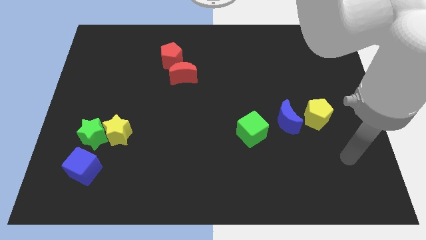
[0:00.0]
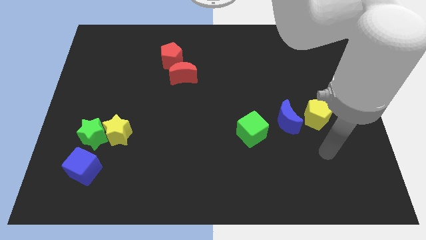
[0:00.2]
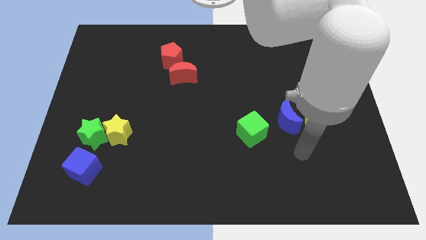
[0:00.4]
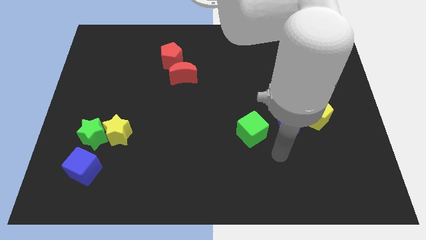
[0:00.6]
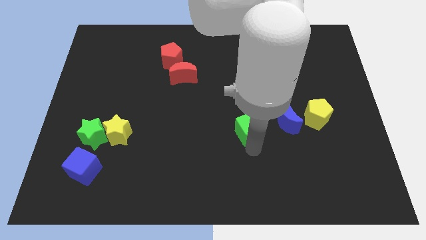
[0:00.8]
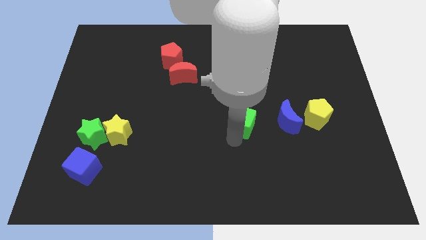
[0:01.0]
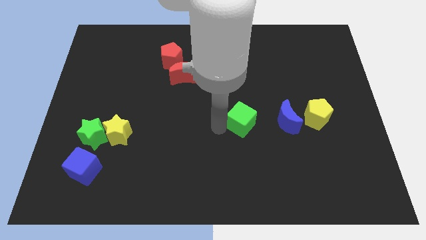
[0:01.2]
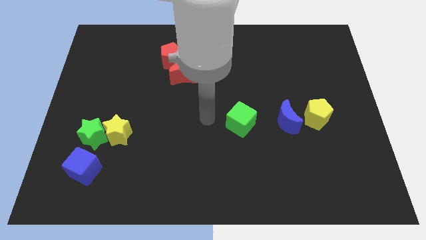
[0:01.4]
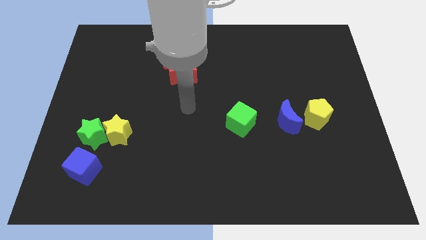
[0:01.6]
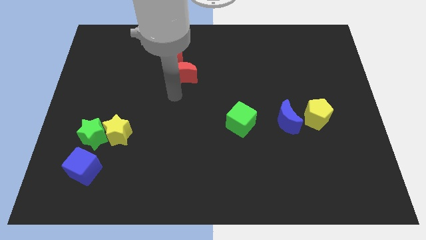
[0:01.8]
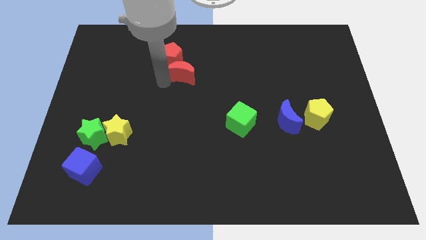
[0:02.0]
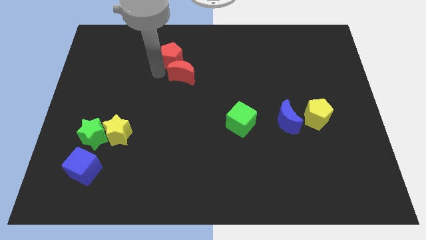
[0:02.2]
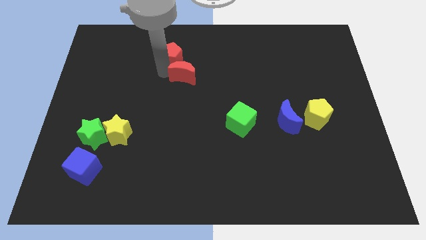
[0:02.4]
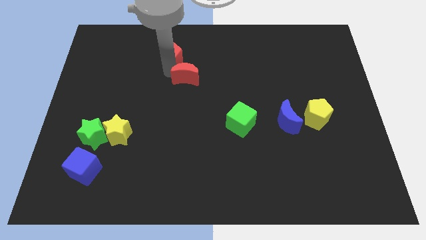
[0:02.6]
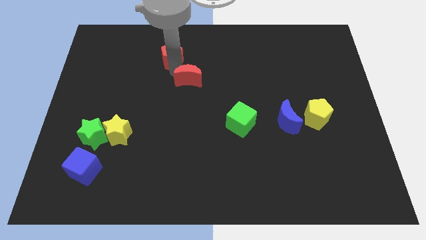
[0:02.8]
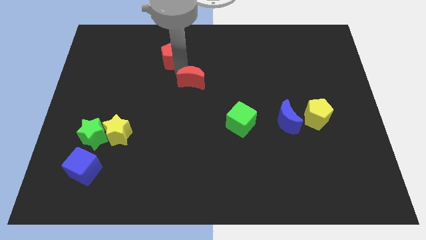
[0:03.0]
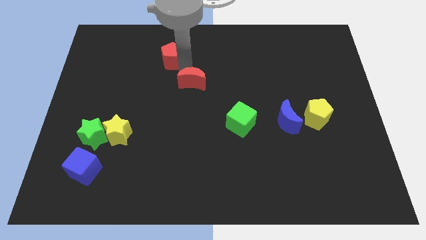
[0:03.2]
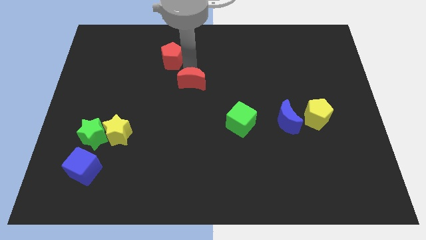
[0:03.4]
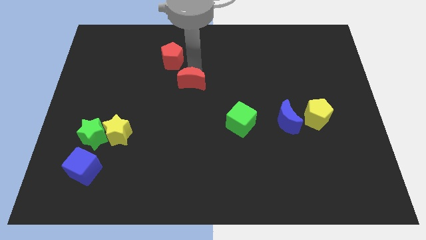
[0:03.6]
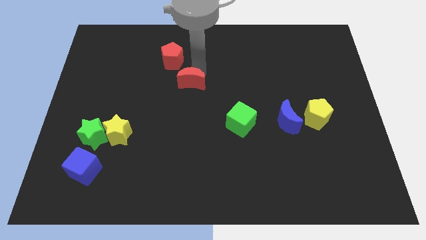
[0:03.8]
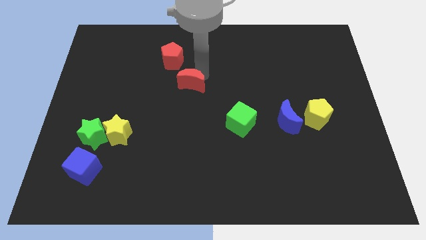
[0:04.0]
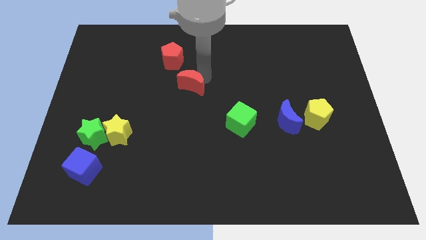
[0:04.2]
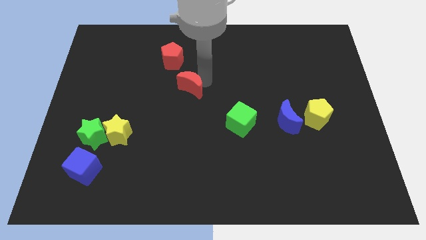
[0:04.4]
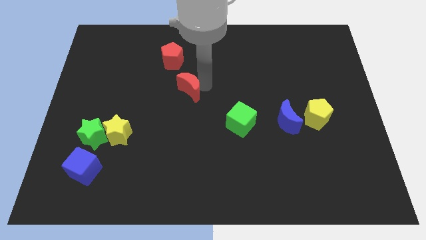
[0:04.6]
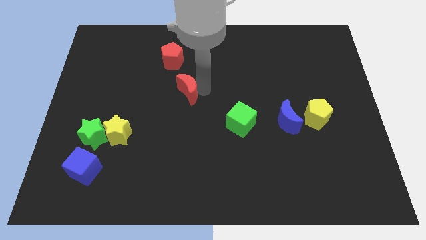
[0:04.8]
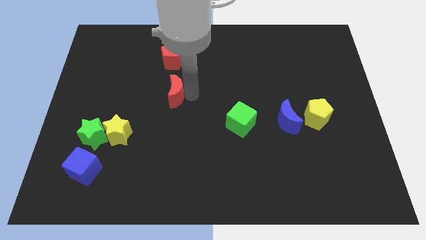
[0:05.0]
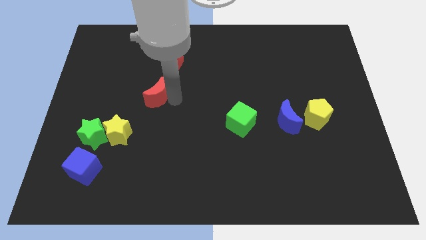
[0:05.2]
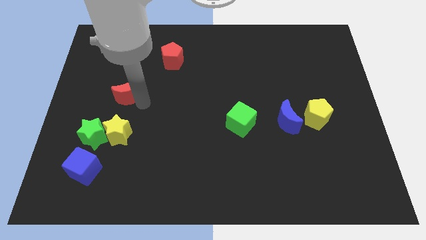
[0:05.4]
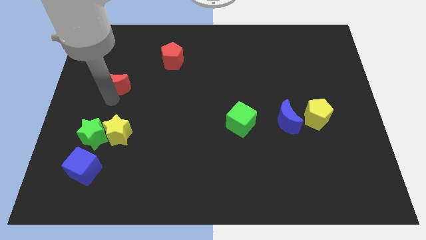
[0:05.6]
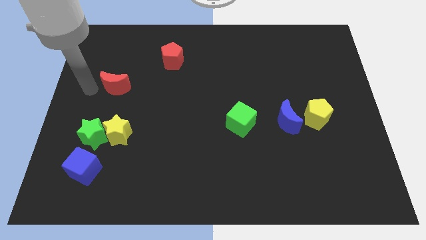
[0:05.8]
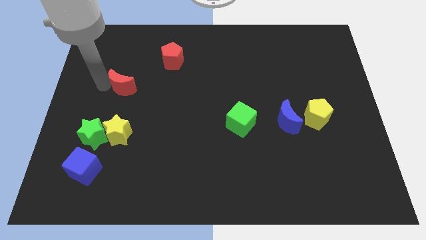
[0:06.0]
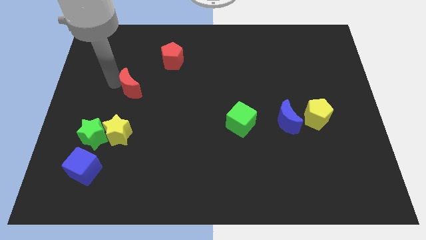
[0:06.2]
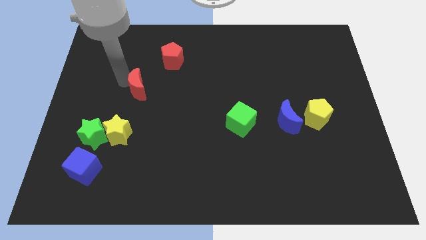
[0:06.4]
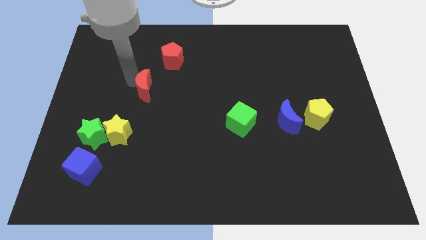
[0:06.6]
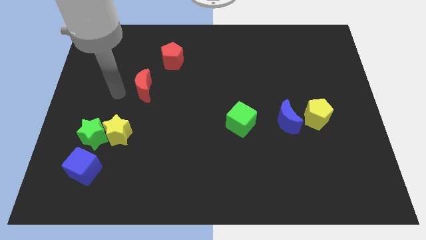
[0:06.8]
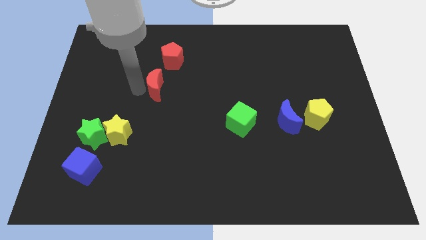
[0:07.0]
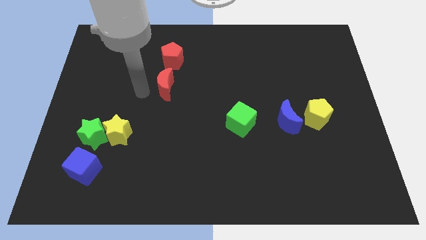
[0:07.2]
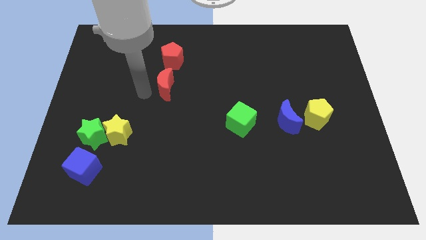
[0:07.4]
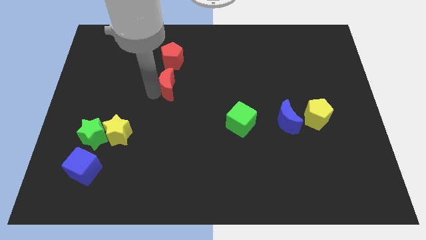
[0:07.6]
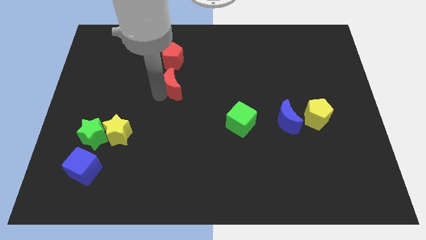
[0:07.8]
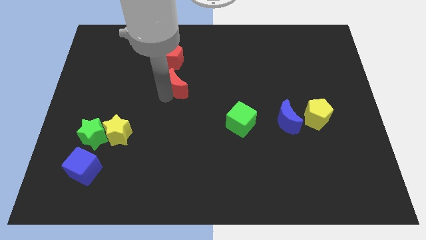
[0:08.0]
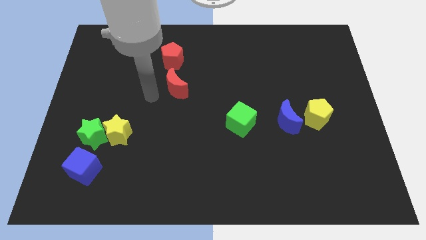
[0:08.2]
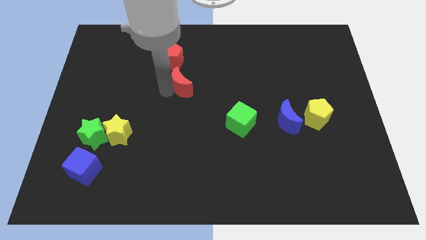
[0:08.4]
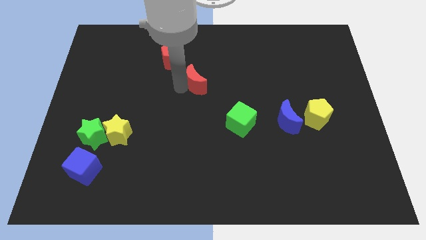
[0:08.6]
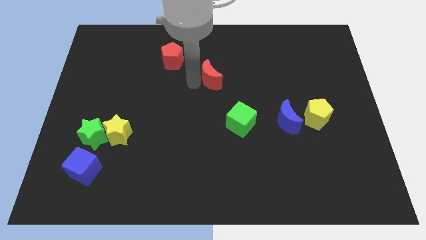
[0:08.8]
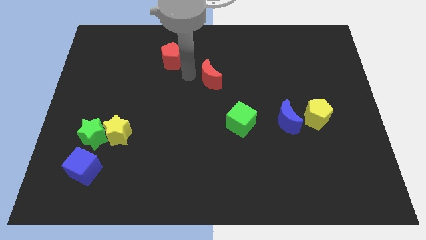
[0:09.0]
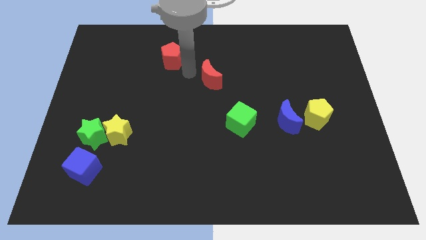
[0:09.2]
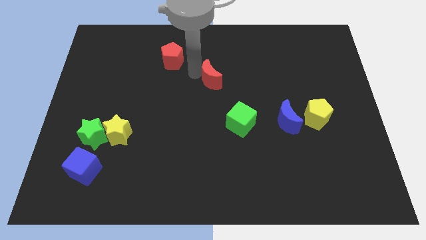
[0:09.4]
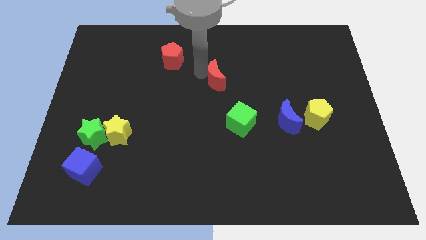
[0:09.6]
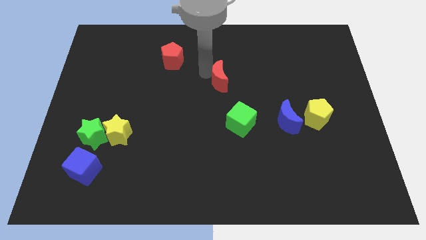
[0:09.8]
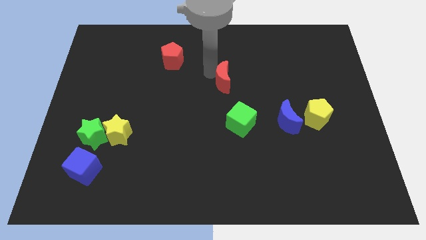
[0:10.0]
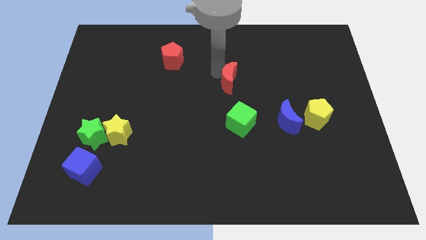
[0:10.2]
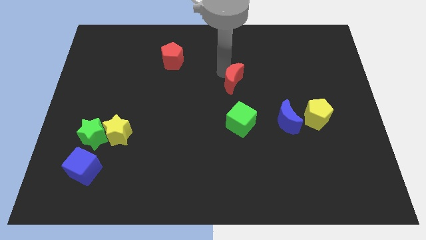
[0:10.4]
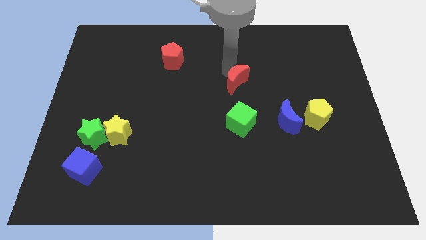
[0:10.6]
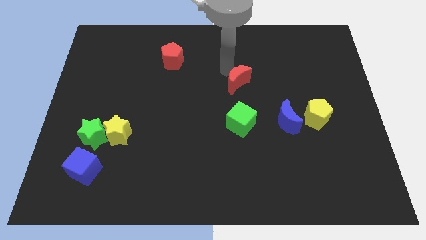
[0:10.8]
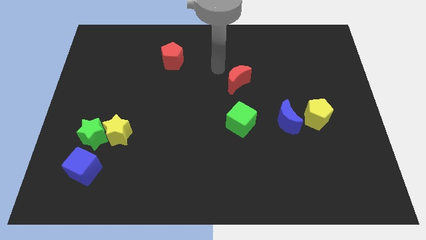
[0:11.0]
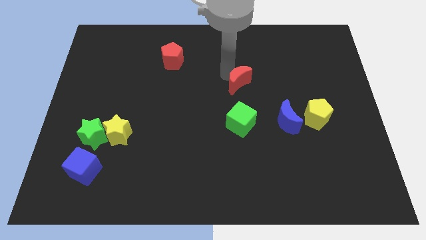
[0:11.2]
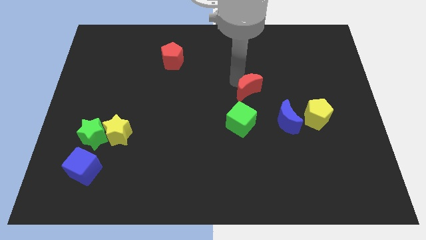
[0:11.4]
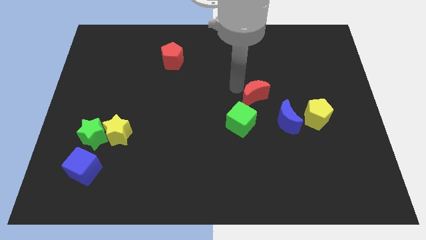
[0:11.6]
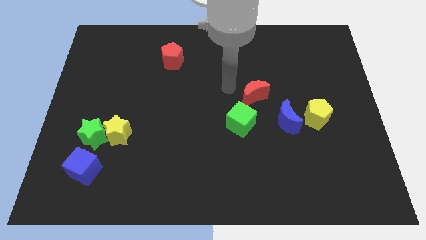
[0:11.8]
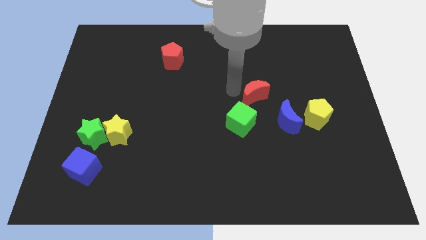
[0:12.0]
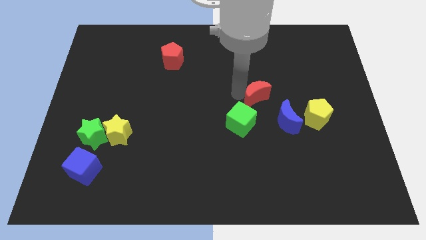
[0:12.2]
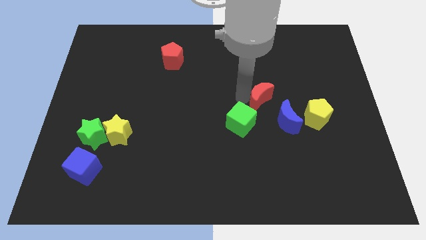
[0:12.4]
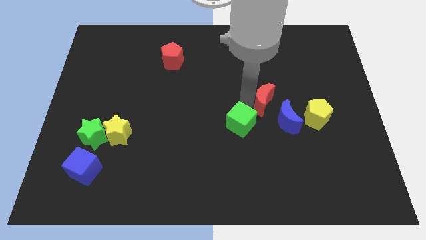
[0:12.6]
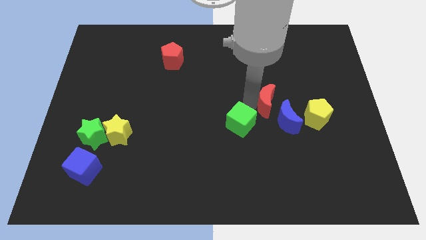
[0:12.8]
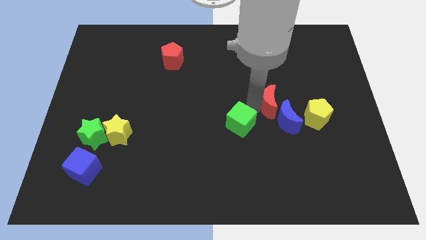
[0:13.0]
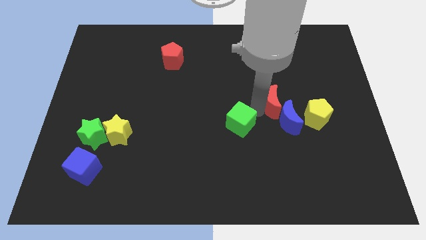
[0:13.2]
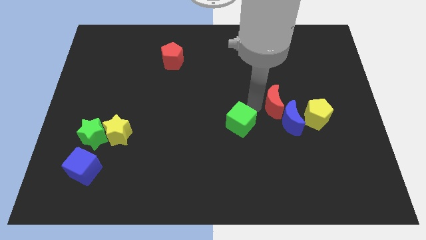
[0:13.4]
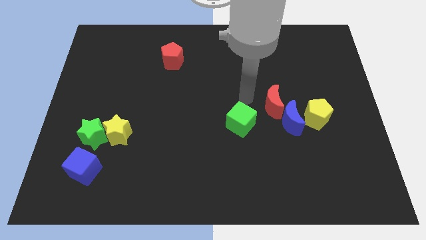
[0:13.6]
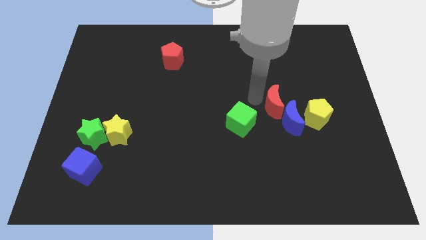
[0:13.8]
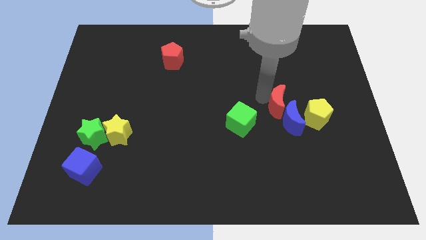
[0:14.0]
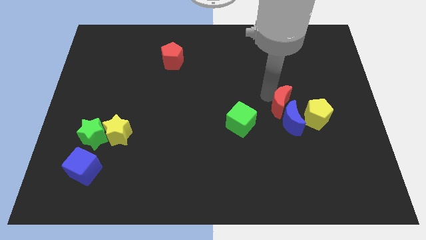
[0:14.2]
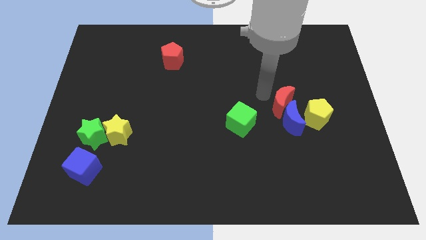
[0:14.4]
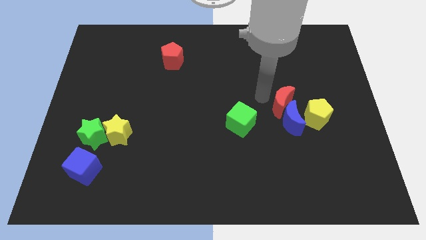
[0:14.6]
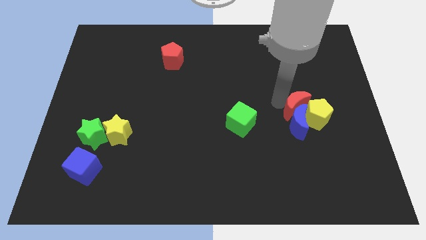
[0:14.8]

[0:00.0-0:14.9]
slide the red moon towards the yellow pentagon

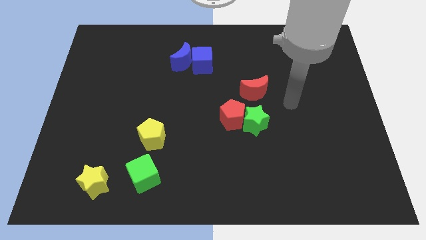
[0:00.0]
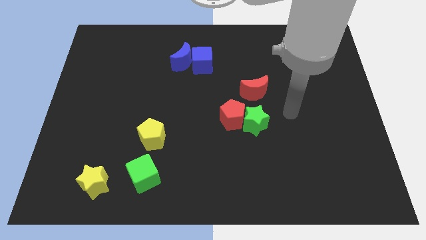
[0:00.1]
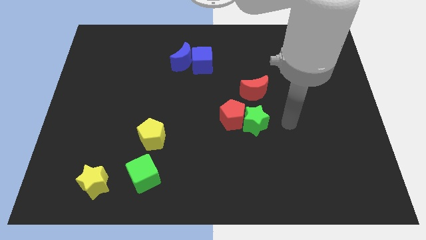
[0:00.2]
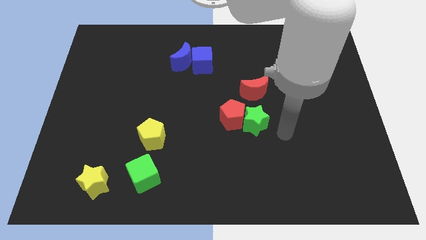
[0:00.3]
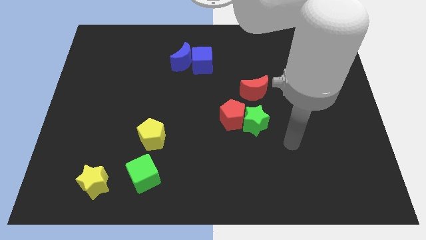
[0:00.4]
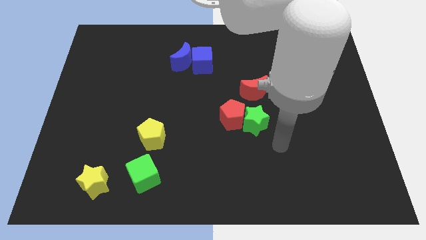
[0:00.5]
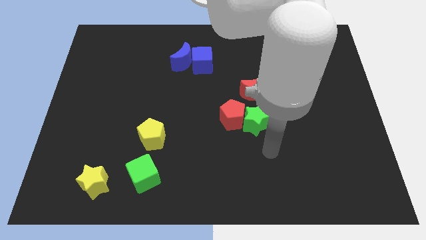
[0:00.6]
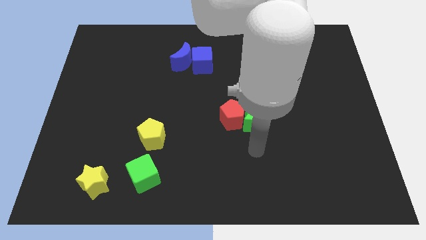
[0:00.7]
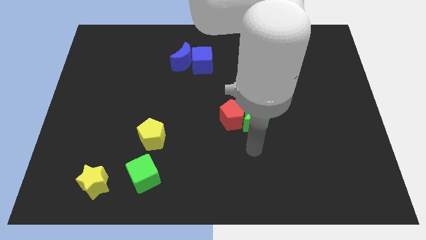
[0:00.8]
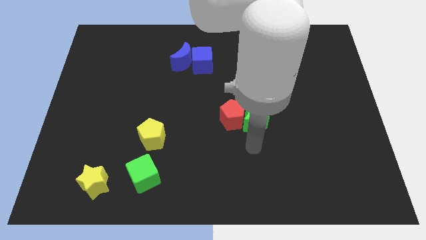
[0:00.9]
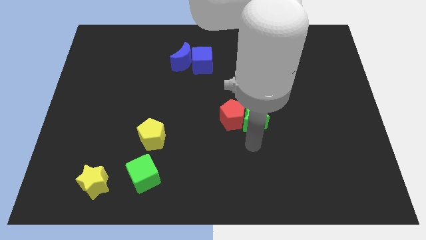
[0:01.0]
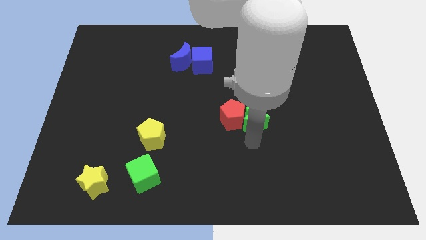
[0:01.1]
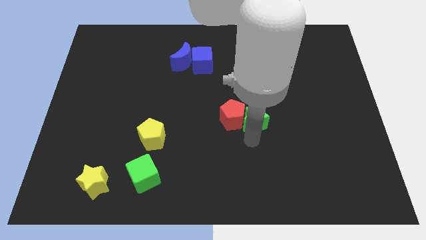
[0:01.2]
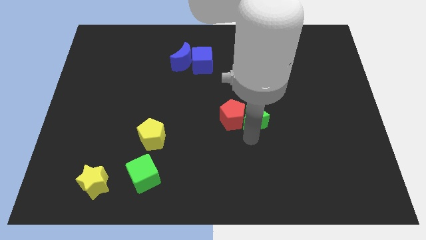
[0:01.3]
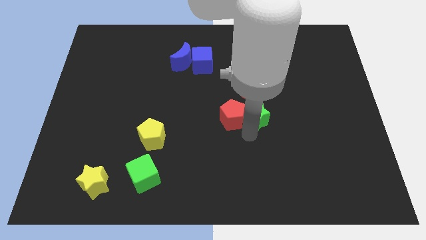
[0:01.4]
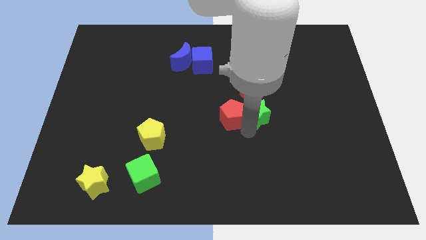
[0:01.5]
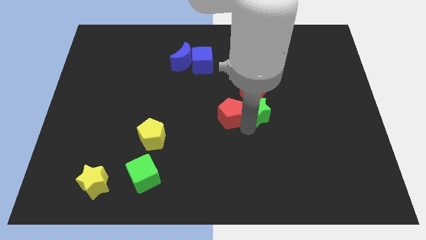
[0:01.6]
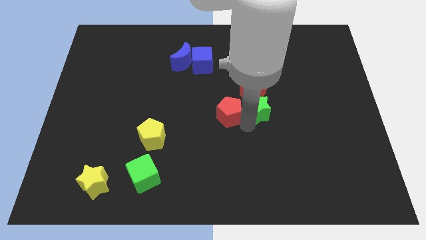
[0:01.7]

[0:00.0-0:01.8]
put the green star next to the red moon
